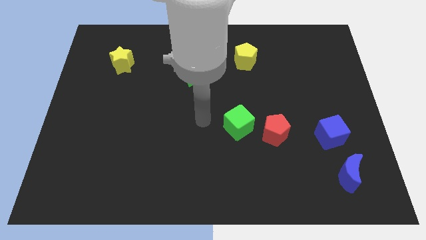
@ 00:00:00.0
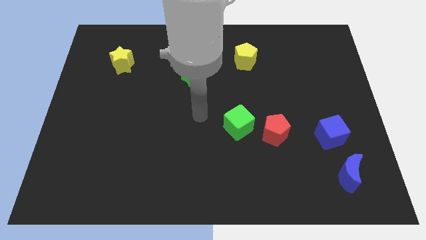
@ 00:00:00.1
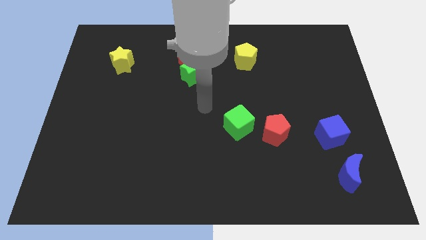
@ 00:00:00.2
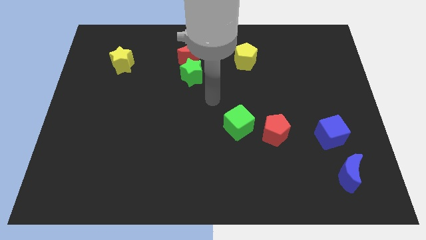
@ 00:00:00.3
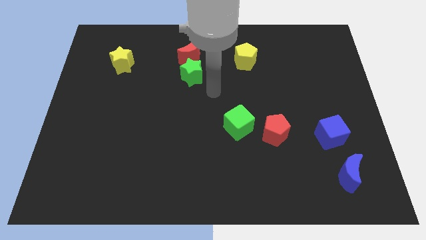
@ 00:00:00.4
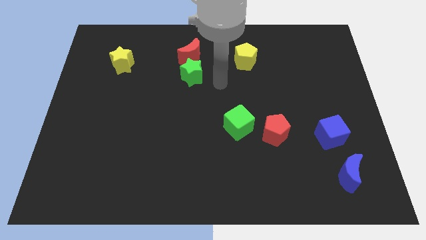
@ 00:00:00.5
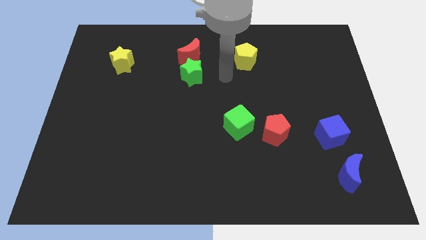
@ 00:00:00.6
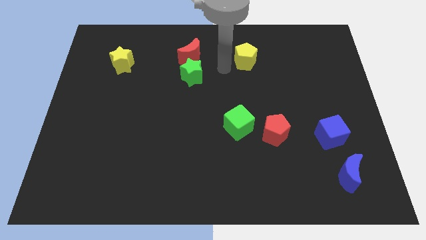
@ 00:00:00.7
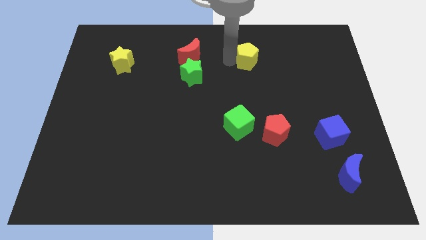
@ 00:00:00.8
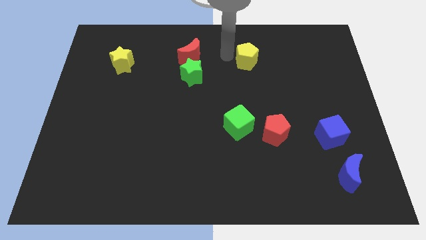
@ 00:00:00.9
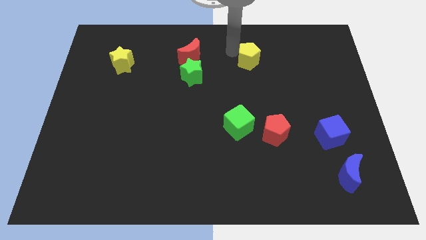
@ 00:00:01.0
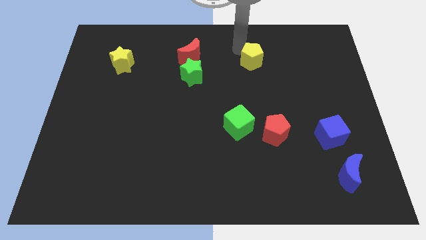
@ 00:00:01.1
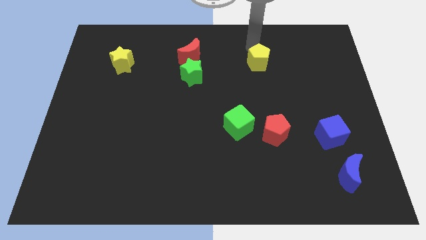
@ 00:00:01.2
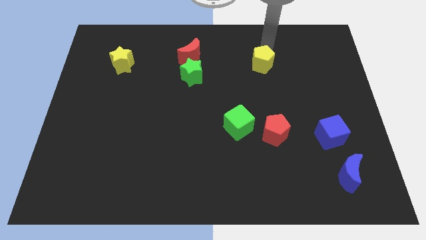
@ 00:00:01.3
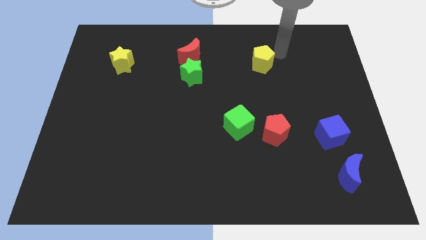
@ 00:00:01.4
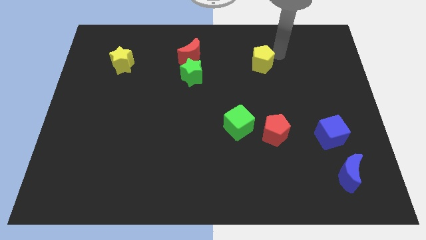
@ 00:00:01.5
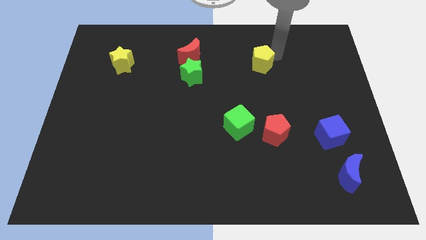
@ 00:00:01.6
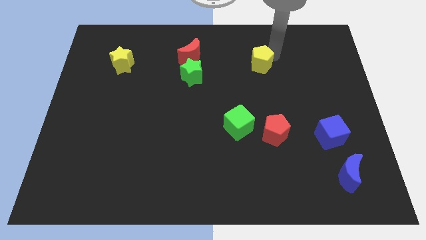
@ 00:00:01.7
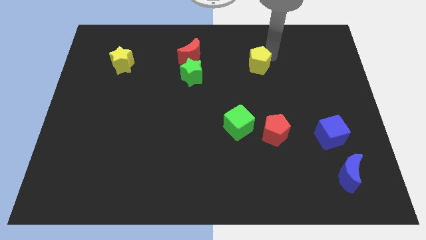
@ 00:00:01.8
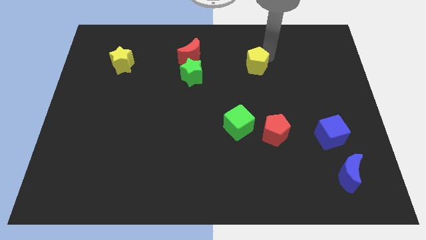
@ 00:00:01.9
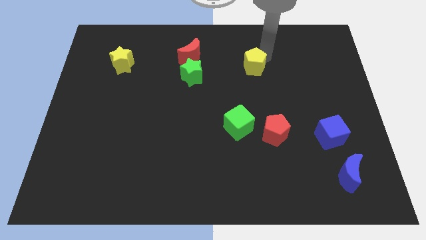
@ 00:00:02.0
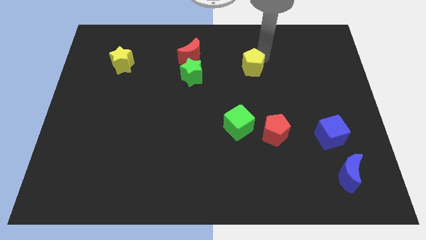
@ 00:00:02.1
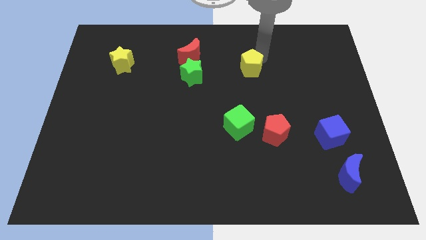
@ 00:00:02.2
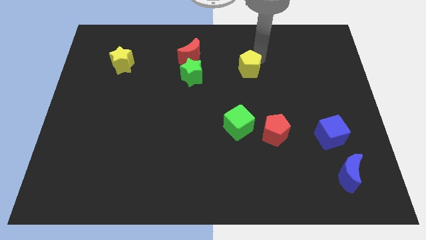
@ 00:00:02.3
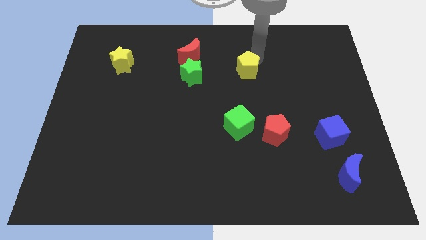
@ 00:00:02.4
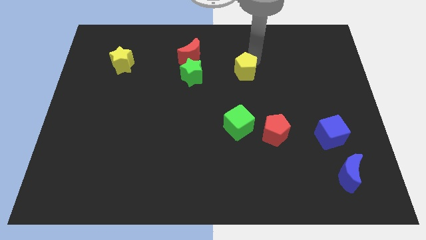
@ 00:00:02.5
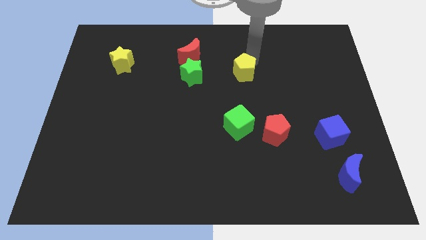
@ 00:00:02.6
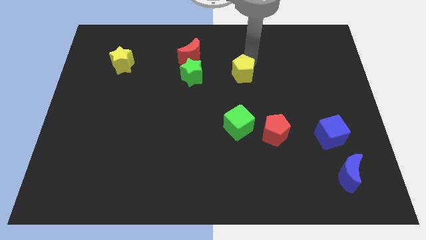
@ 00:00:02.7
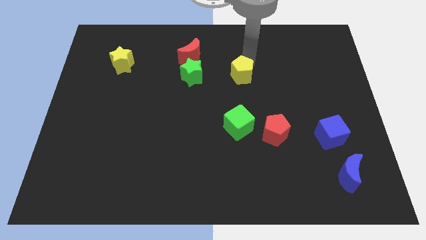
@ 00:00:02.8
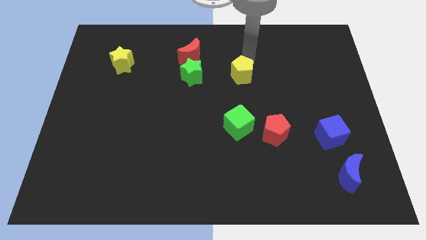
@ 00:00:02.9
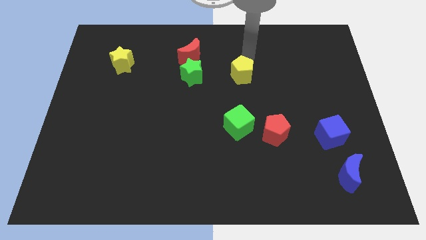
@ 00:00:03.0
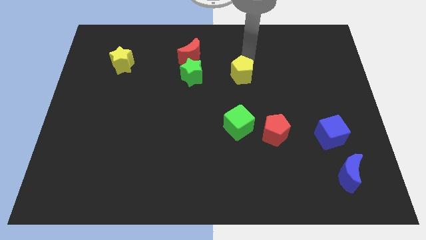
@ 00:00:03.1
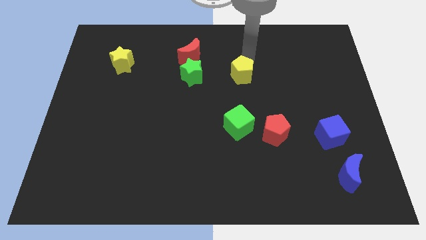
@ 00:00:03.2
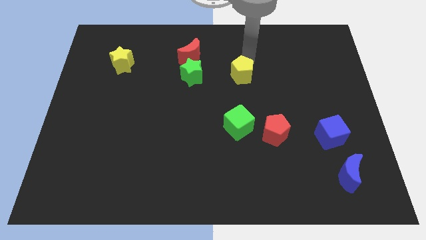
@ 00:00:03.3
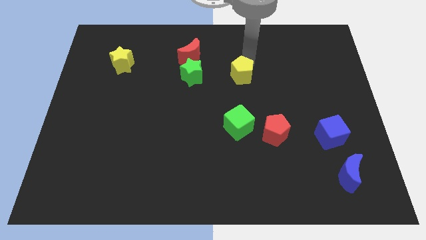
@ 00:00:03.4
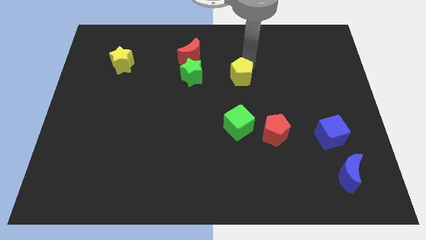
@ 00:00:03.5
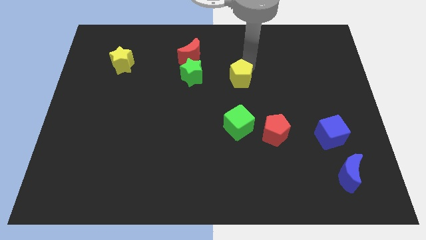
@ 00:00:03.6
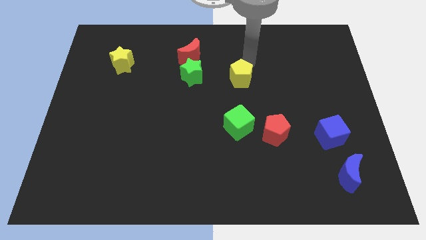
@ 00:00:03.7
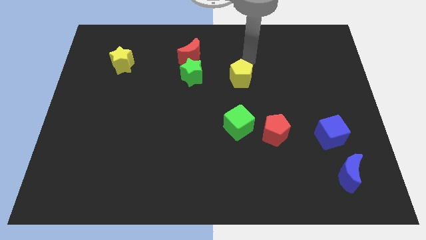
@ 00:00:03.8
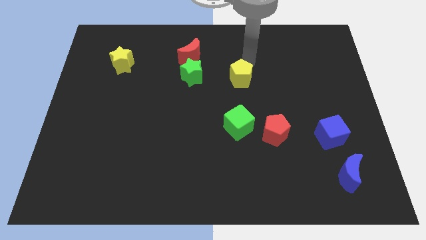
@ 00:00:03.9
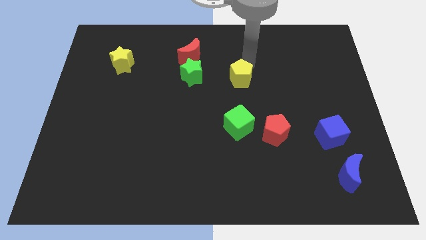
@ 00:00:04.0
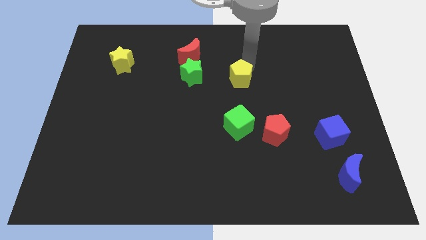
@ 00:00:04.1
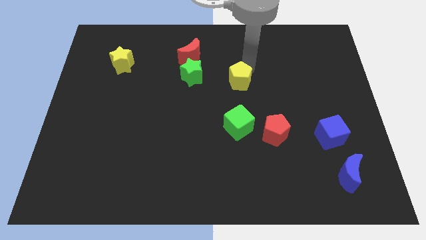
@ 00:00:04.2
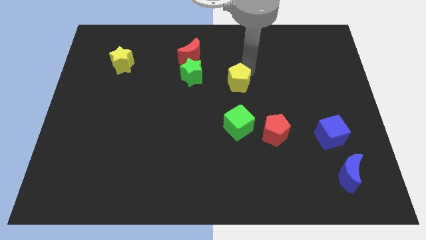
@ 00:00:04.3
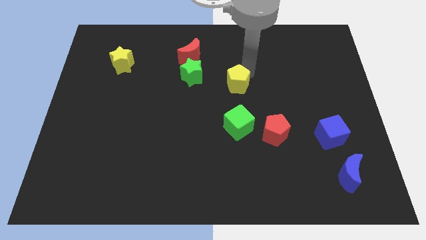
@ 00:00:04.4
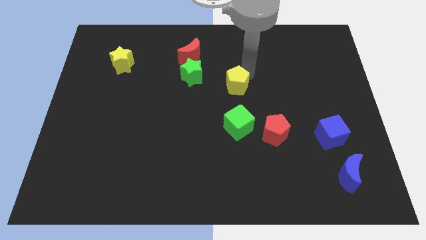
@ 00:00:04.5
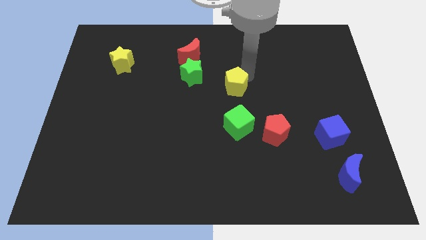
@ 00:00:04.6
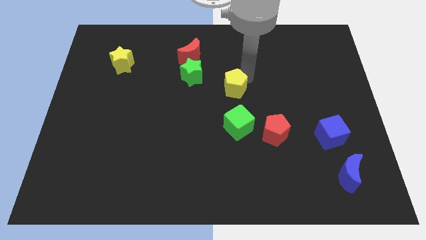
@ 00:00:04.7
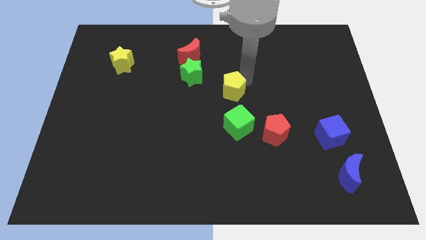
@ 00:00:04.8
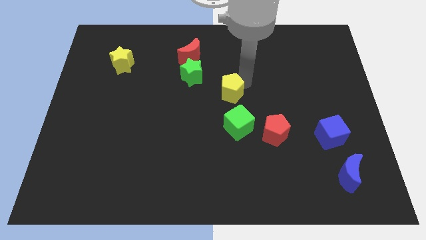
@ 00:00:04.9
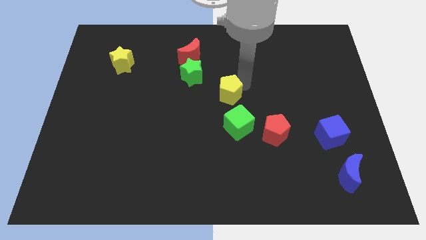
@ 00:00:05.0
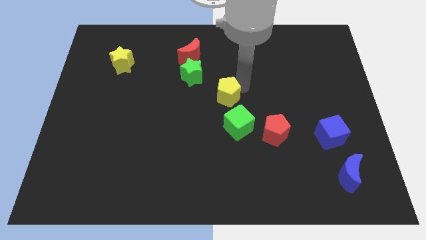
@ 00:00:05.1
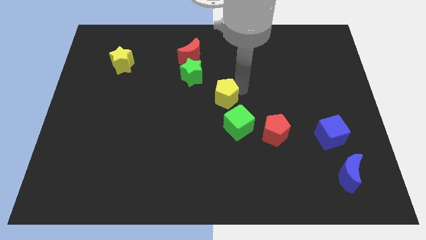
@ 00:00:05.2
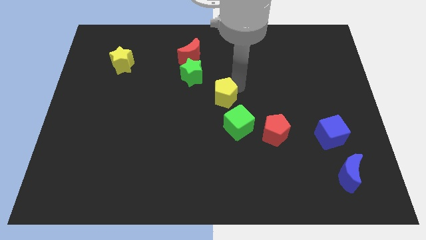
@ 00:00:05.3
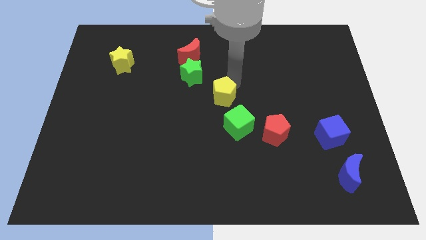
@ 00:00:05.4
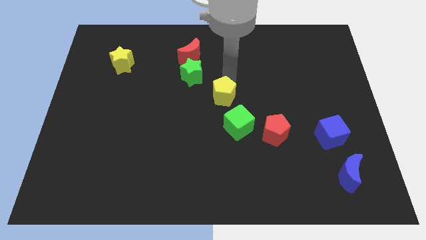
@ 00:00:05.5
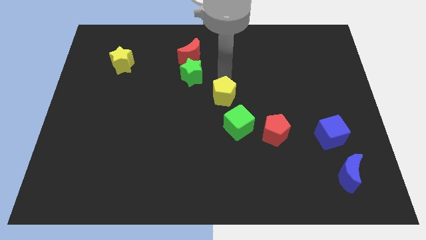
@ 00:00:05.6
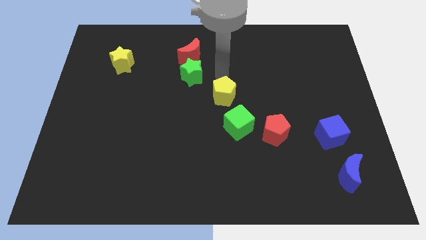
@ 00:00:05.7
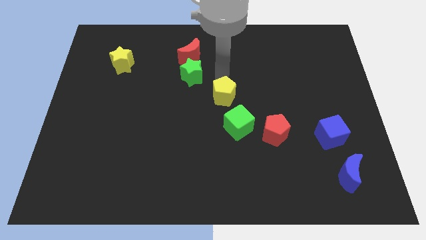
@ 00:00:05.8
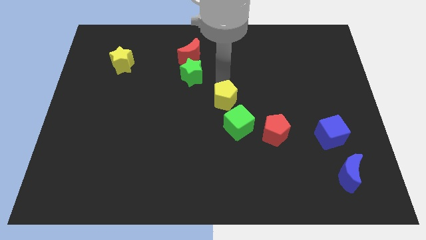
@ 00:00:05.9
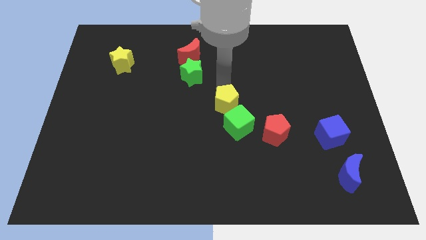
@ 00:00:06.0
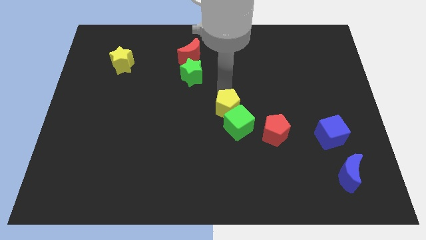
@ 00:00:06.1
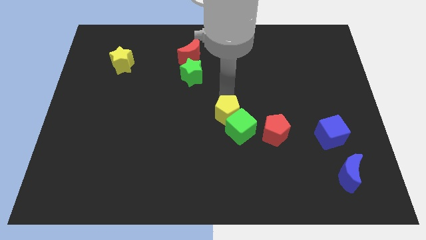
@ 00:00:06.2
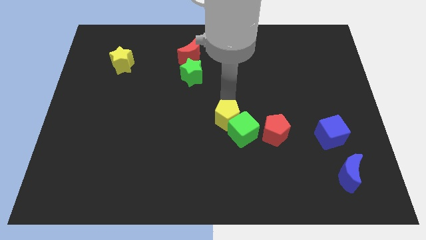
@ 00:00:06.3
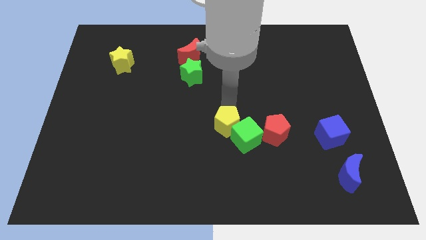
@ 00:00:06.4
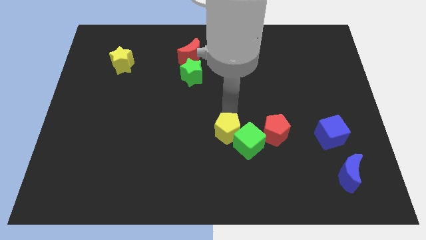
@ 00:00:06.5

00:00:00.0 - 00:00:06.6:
slide the yellow pentagon downwards

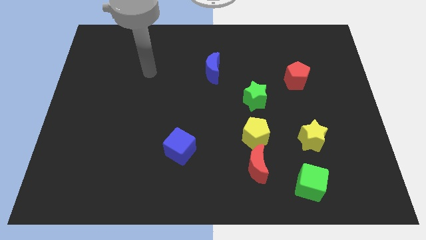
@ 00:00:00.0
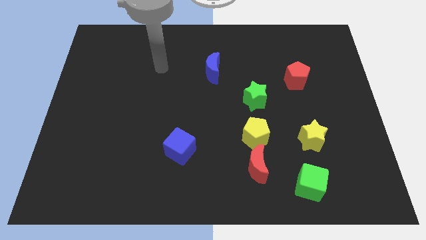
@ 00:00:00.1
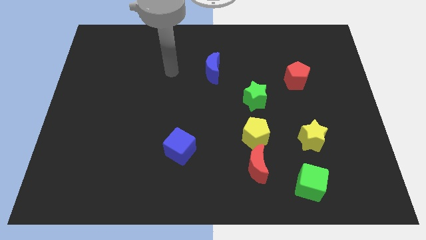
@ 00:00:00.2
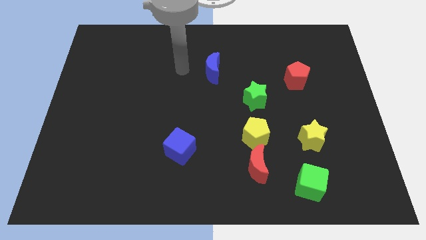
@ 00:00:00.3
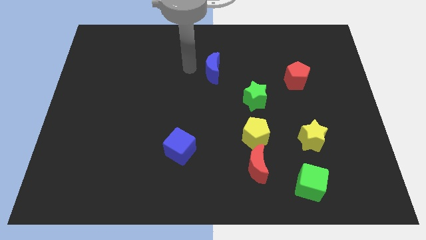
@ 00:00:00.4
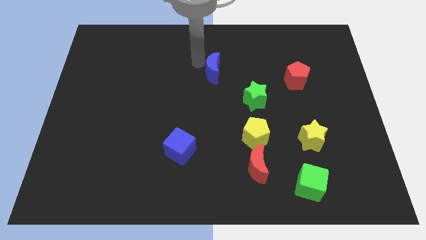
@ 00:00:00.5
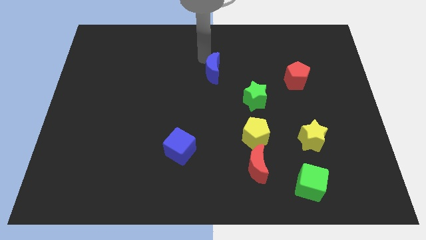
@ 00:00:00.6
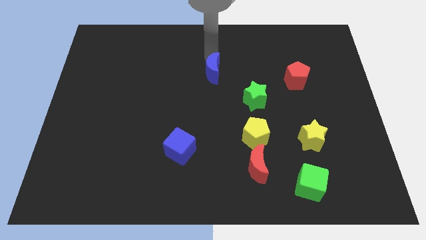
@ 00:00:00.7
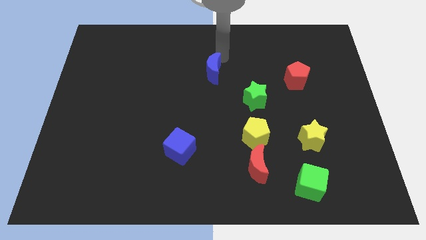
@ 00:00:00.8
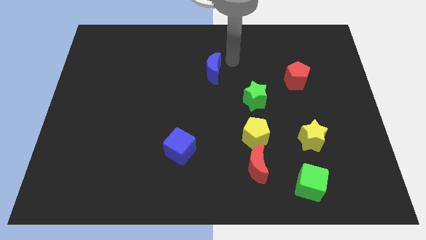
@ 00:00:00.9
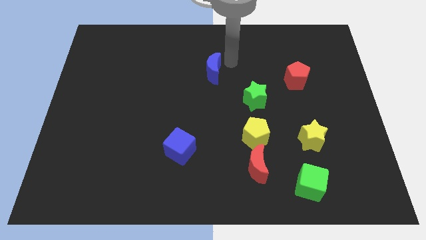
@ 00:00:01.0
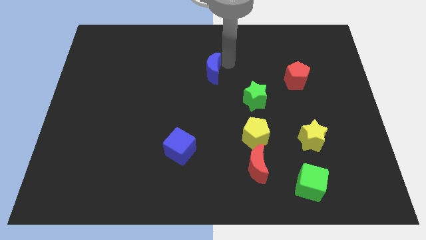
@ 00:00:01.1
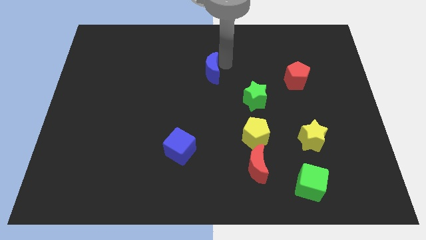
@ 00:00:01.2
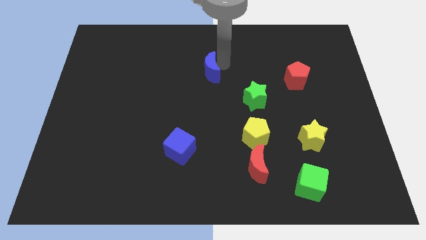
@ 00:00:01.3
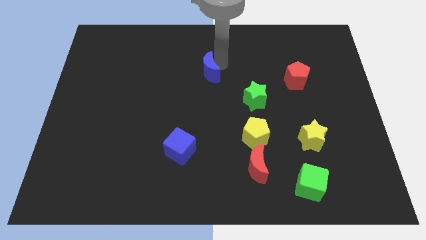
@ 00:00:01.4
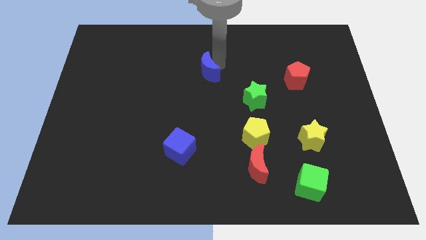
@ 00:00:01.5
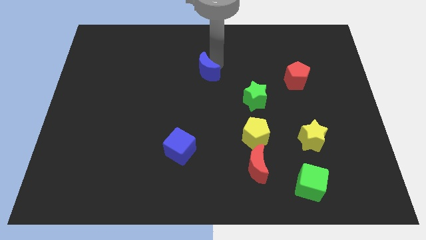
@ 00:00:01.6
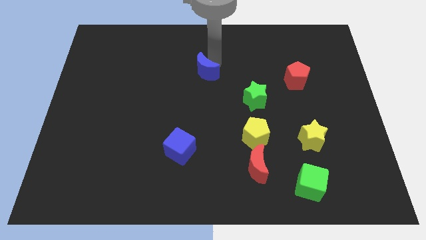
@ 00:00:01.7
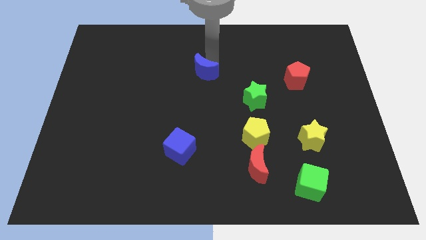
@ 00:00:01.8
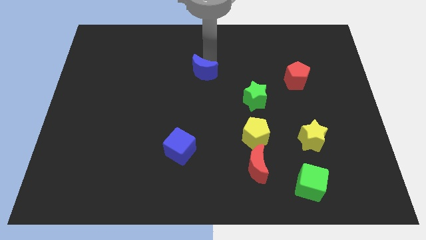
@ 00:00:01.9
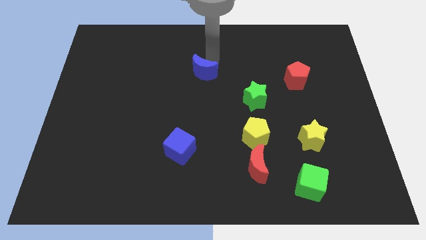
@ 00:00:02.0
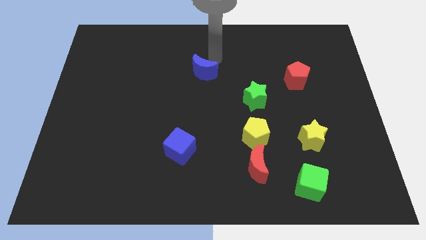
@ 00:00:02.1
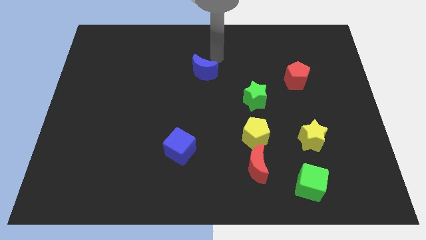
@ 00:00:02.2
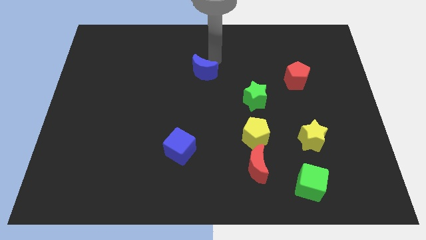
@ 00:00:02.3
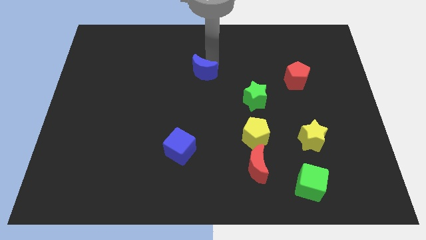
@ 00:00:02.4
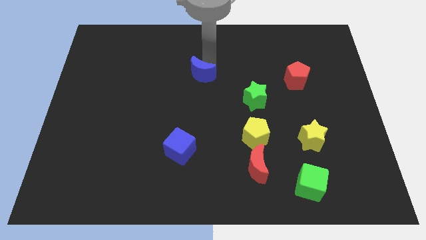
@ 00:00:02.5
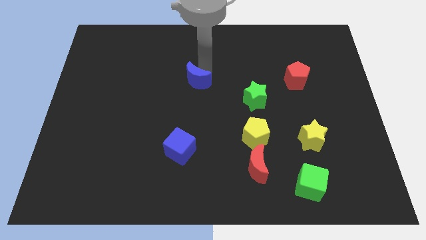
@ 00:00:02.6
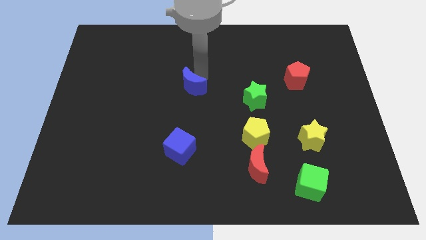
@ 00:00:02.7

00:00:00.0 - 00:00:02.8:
slightly move the blue moon diagonally down and left
